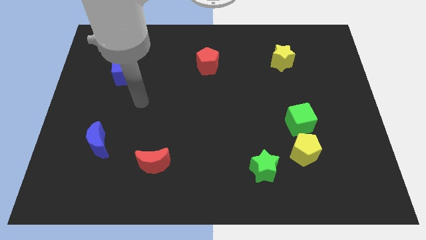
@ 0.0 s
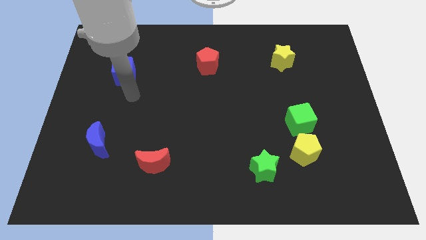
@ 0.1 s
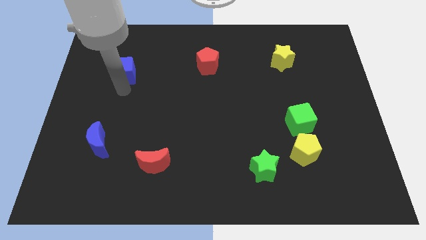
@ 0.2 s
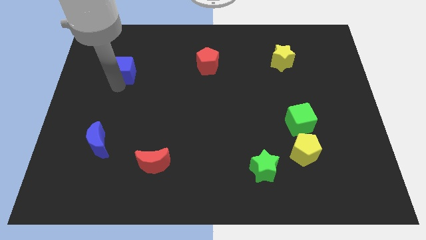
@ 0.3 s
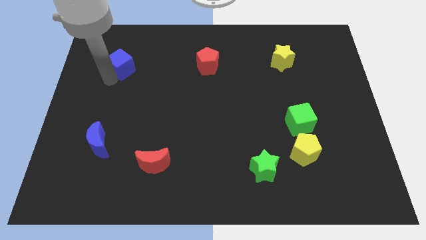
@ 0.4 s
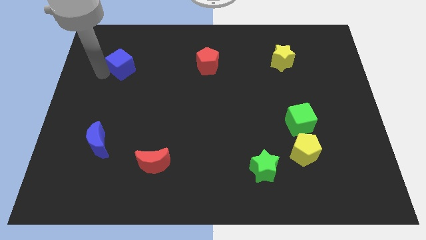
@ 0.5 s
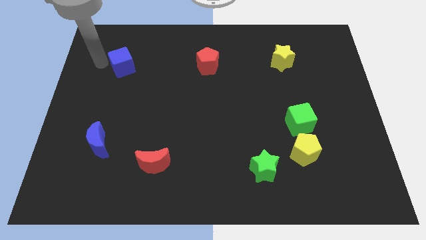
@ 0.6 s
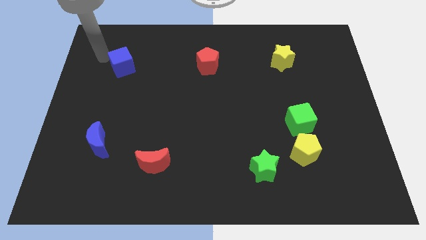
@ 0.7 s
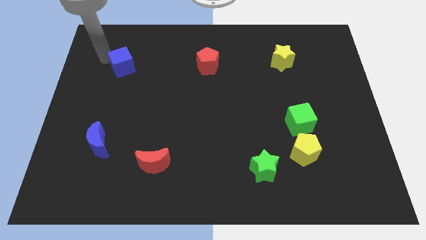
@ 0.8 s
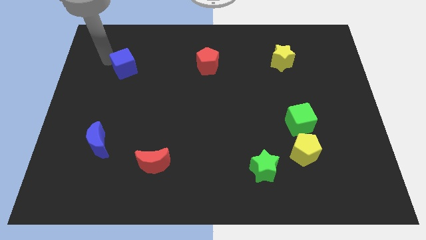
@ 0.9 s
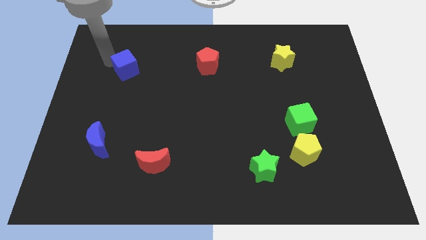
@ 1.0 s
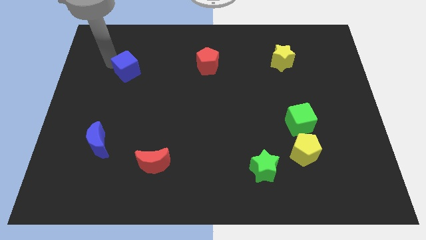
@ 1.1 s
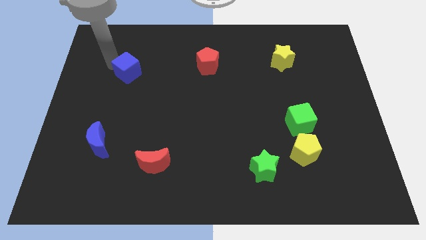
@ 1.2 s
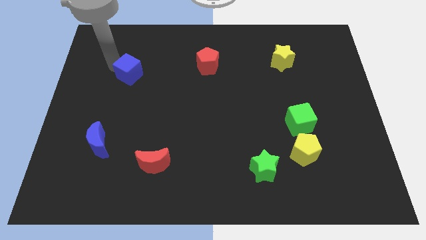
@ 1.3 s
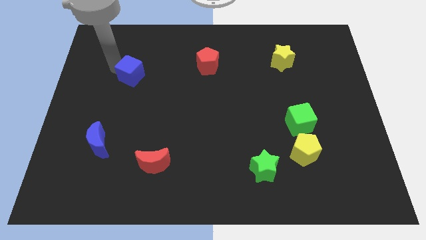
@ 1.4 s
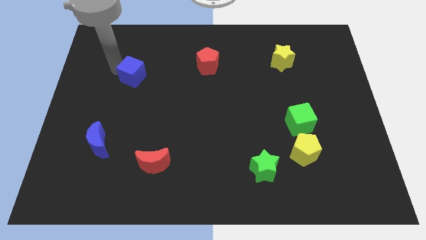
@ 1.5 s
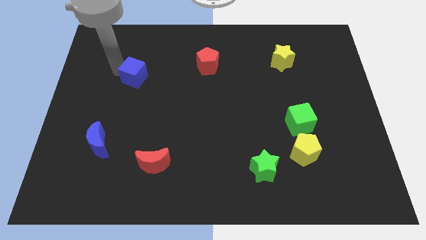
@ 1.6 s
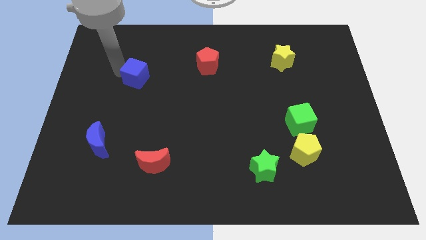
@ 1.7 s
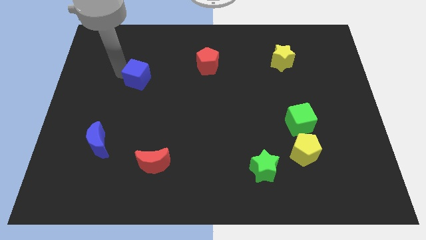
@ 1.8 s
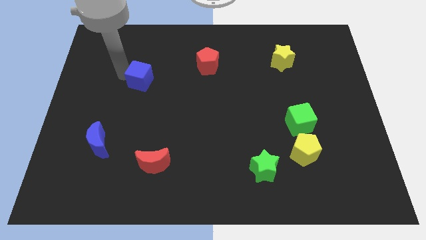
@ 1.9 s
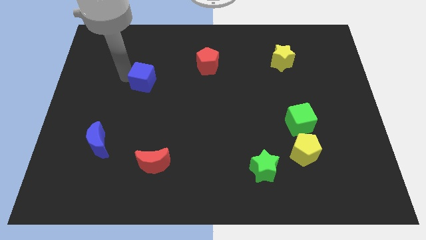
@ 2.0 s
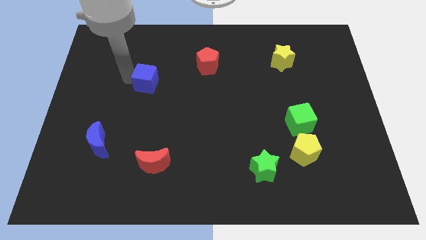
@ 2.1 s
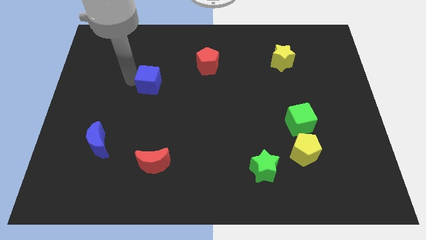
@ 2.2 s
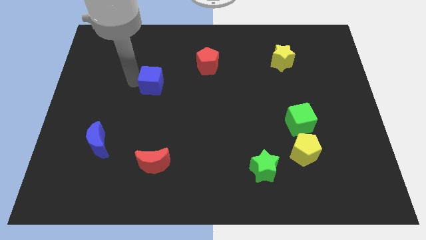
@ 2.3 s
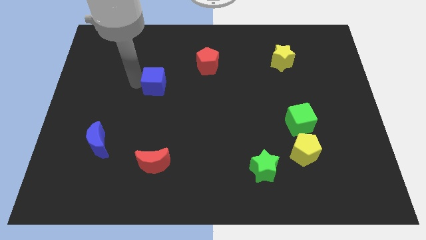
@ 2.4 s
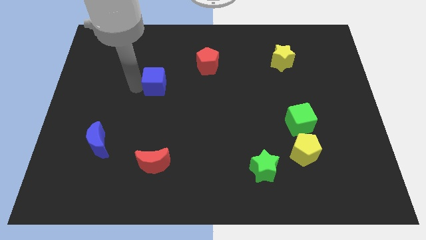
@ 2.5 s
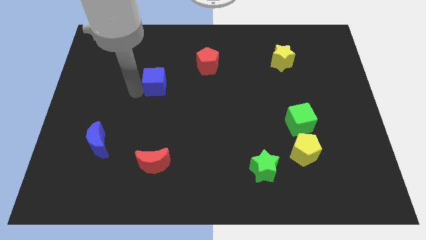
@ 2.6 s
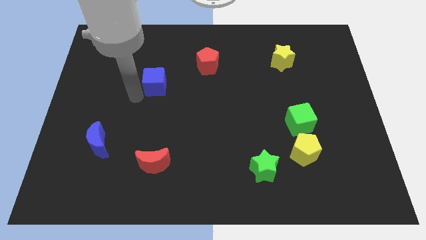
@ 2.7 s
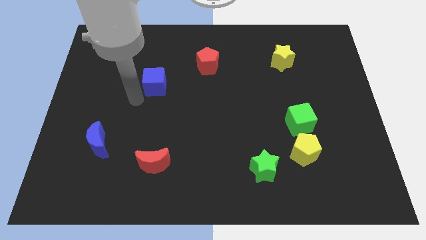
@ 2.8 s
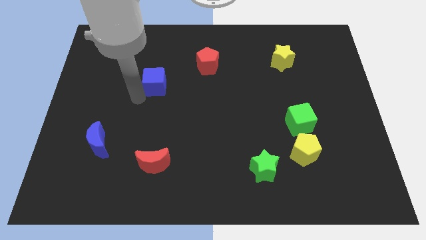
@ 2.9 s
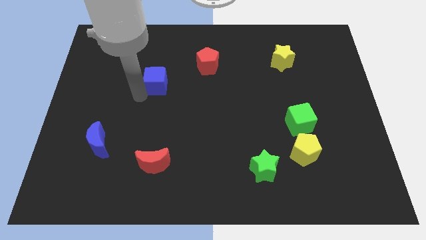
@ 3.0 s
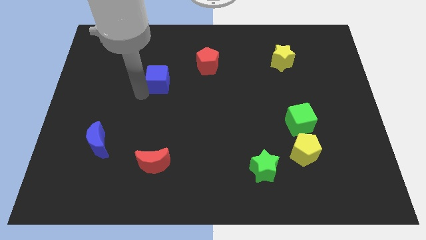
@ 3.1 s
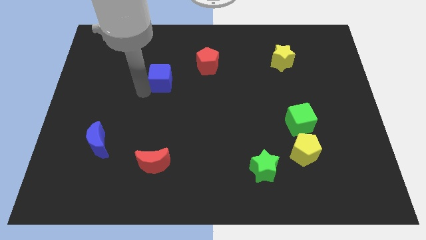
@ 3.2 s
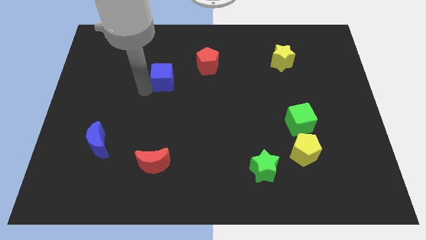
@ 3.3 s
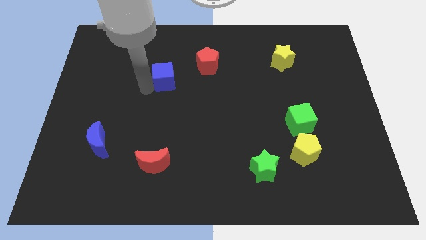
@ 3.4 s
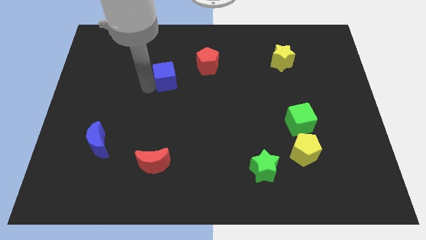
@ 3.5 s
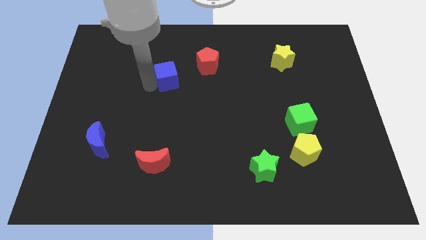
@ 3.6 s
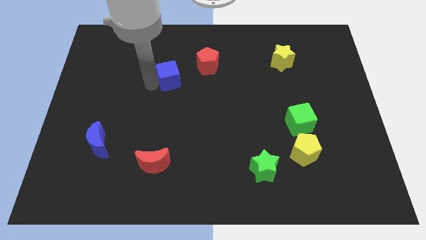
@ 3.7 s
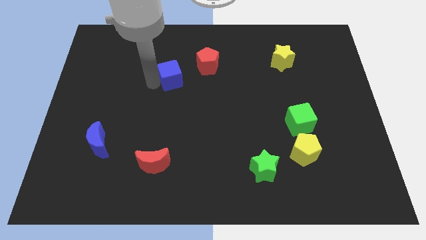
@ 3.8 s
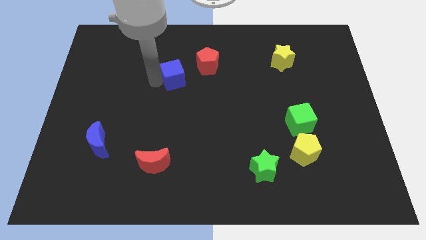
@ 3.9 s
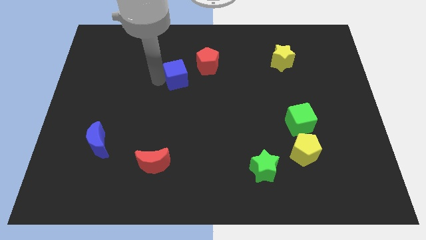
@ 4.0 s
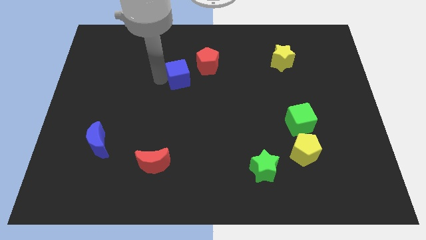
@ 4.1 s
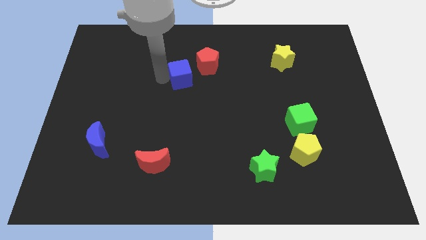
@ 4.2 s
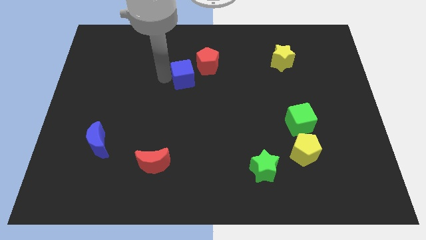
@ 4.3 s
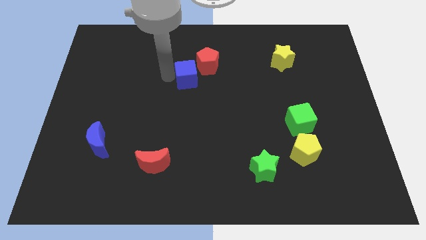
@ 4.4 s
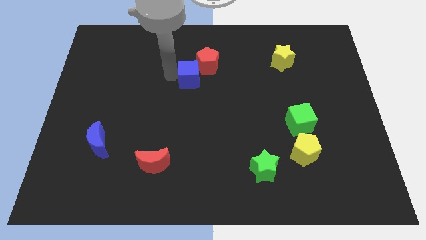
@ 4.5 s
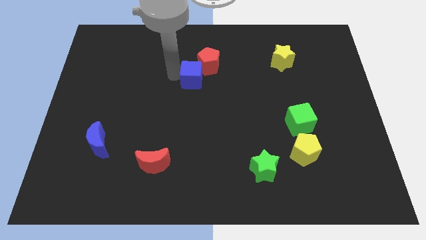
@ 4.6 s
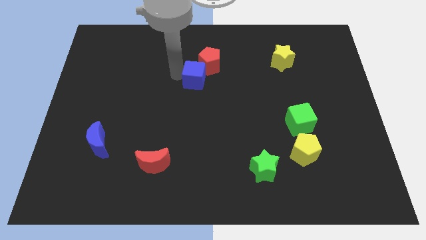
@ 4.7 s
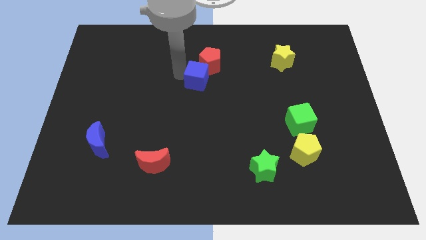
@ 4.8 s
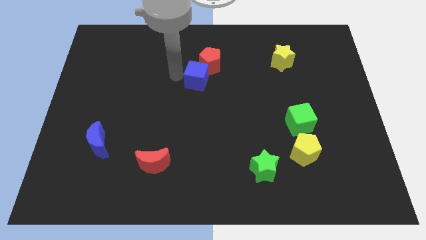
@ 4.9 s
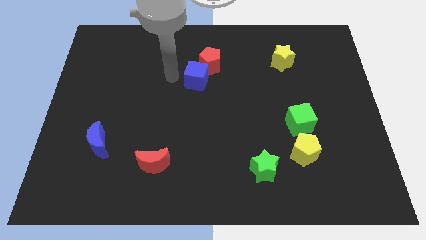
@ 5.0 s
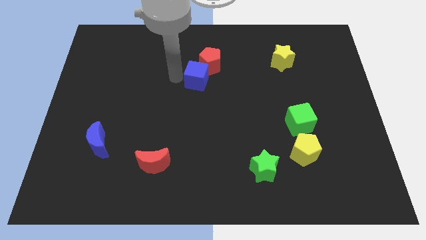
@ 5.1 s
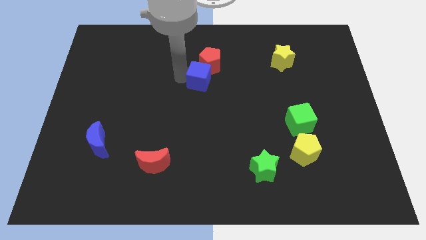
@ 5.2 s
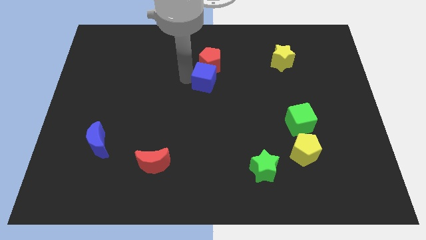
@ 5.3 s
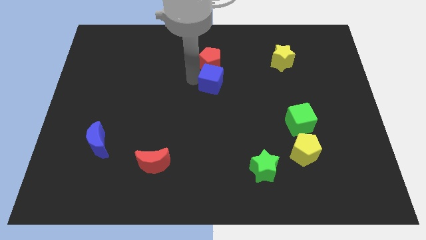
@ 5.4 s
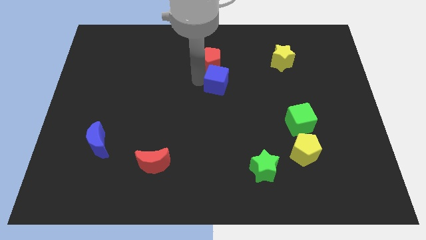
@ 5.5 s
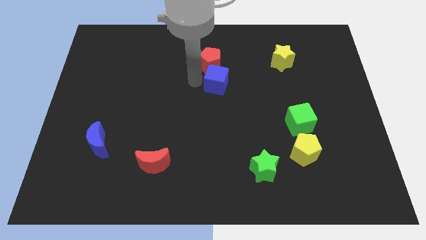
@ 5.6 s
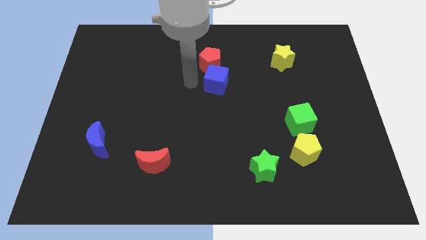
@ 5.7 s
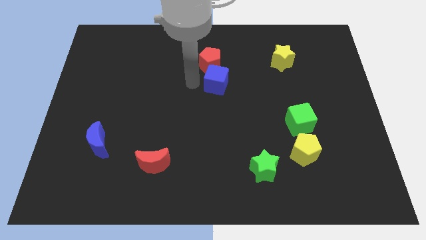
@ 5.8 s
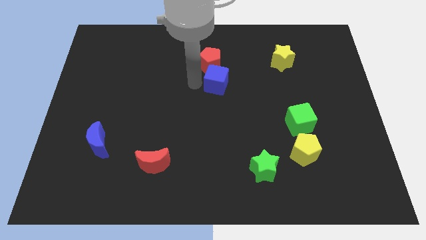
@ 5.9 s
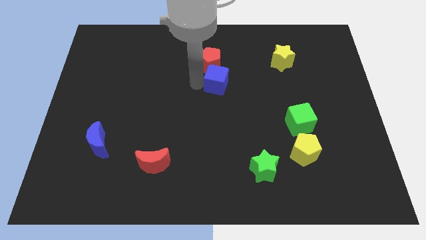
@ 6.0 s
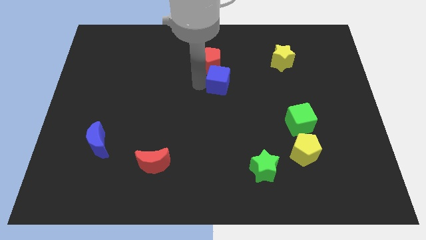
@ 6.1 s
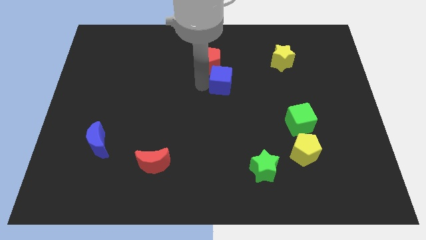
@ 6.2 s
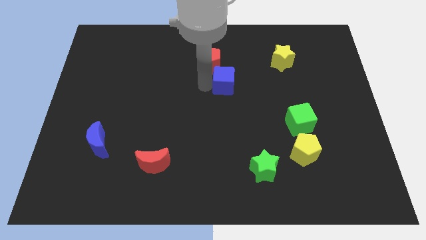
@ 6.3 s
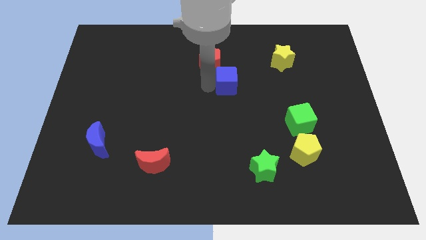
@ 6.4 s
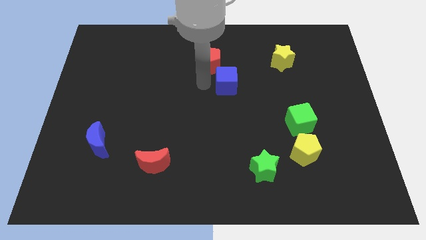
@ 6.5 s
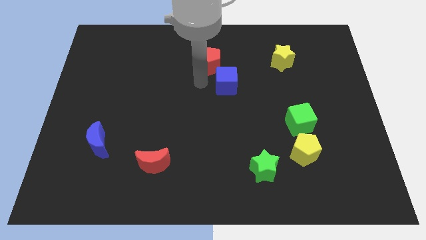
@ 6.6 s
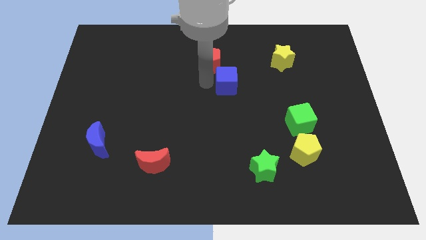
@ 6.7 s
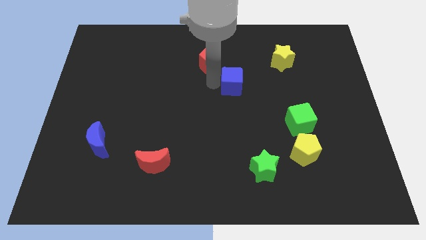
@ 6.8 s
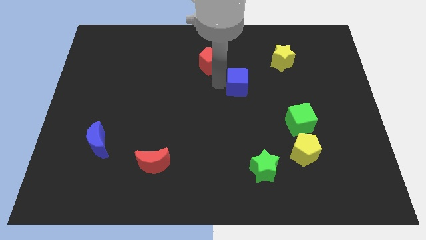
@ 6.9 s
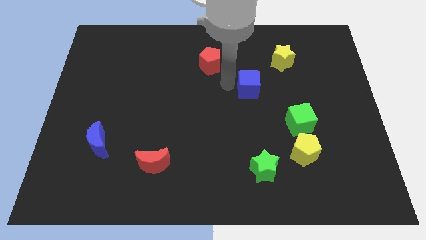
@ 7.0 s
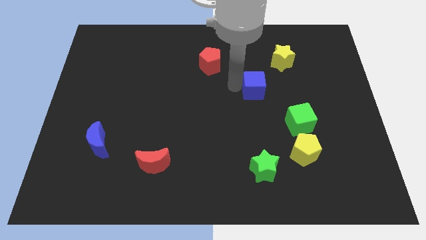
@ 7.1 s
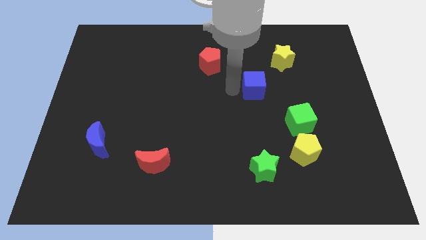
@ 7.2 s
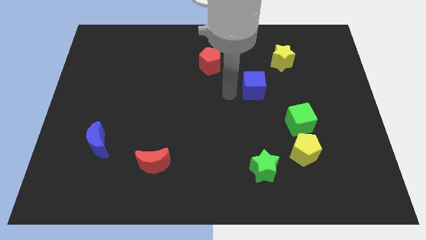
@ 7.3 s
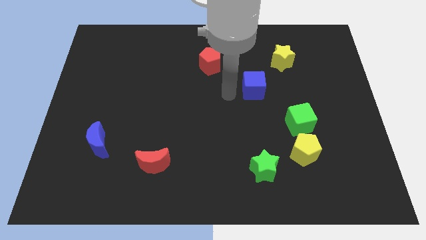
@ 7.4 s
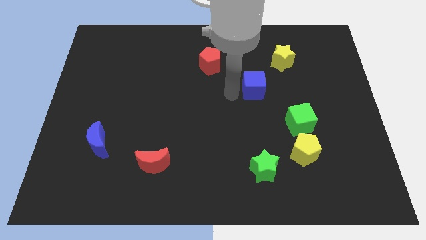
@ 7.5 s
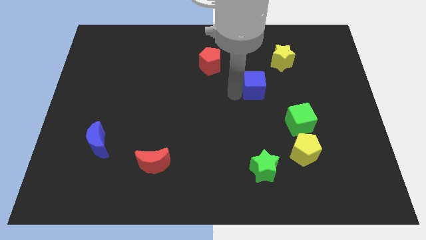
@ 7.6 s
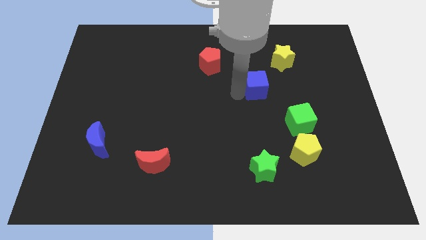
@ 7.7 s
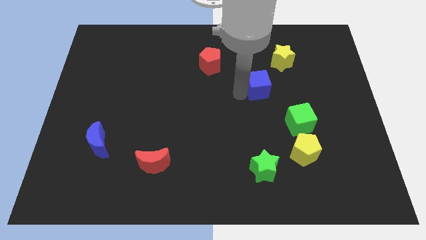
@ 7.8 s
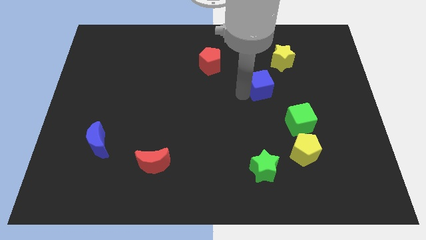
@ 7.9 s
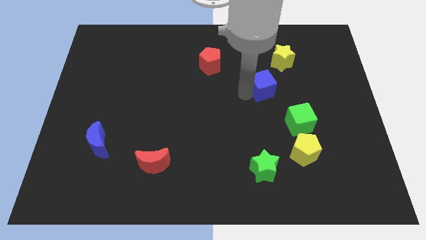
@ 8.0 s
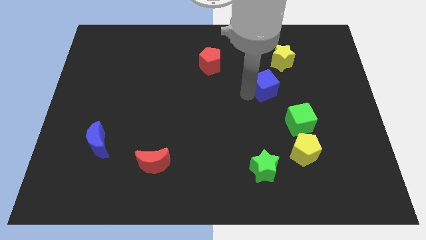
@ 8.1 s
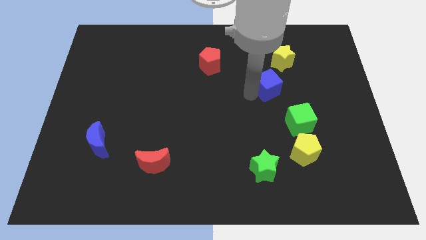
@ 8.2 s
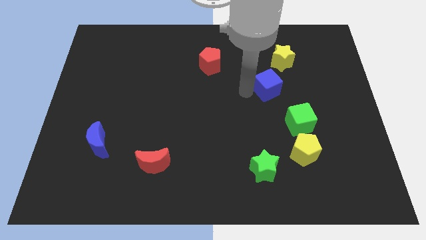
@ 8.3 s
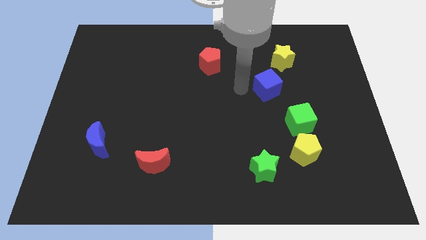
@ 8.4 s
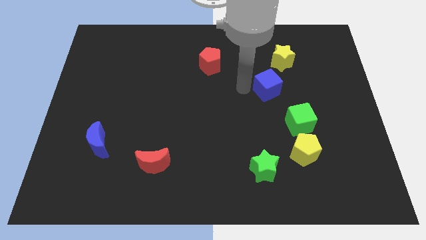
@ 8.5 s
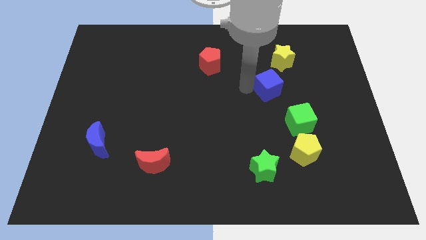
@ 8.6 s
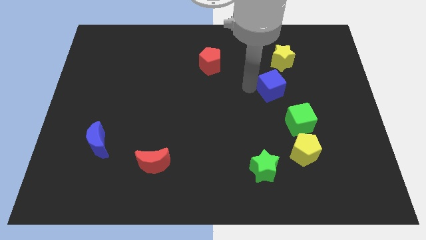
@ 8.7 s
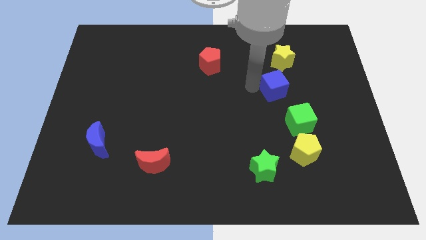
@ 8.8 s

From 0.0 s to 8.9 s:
put the blue cube above the green cube
